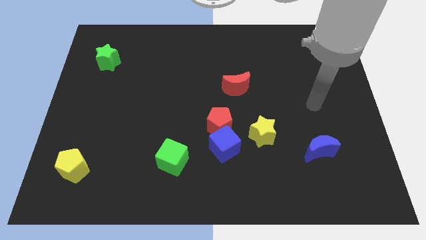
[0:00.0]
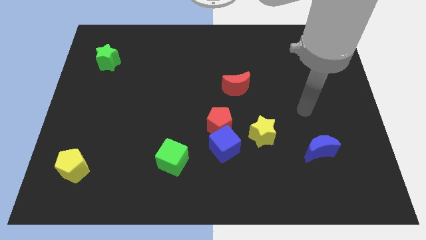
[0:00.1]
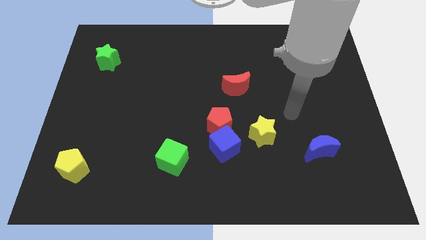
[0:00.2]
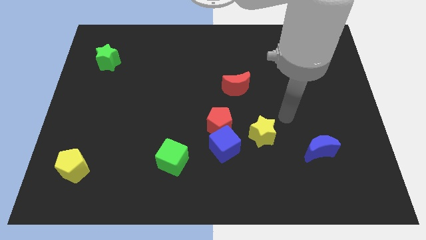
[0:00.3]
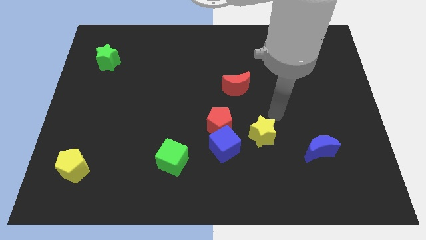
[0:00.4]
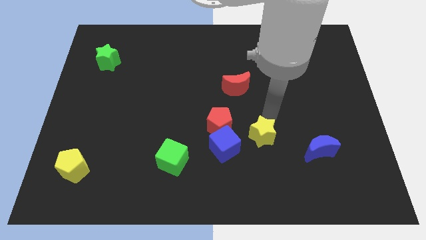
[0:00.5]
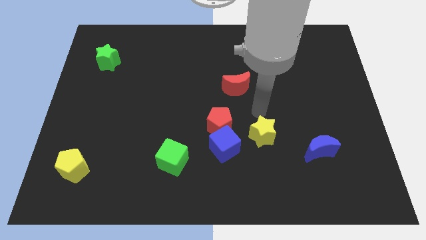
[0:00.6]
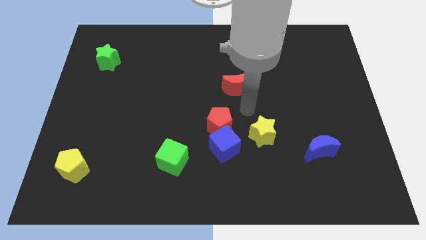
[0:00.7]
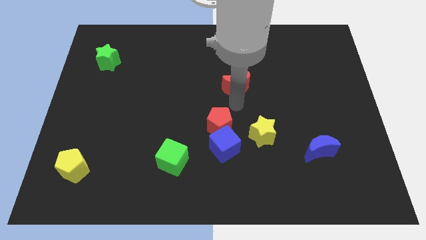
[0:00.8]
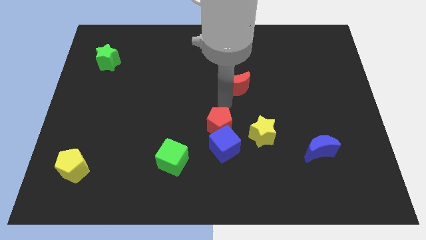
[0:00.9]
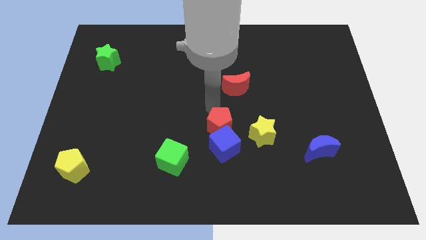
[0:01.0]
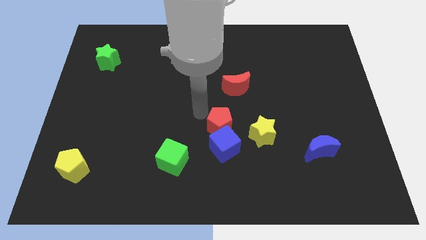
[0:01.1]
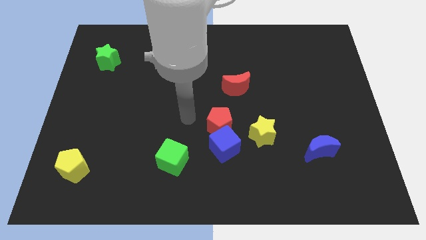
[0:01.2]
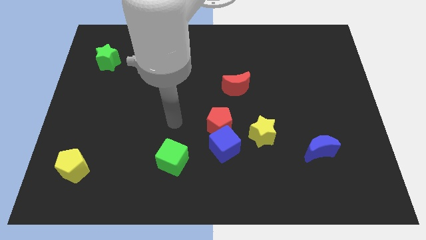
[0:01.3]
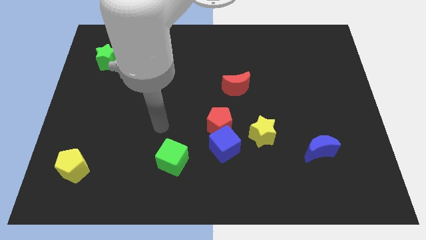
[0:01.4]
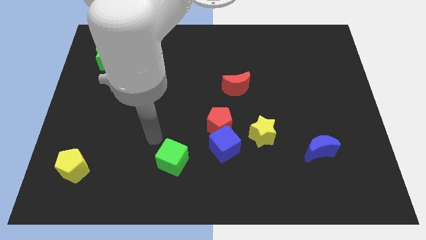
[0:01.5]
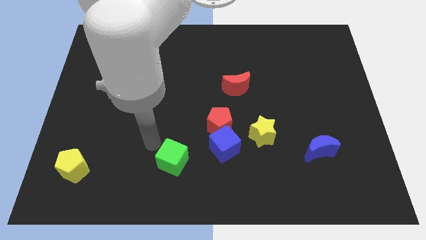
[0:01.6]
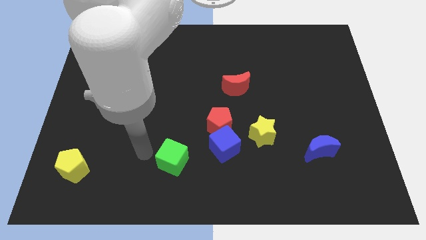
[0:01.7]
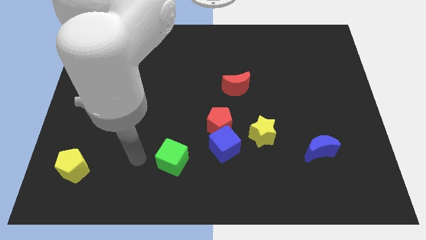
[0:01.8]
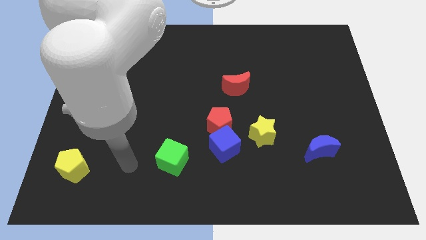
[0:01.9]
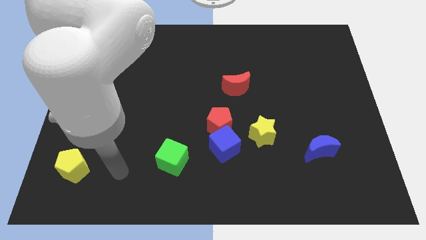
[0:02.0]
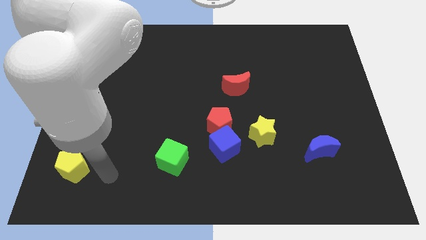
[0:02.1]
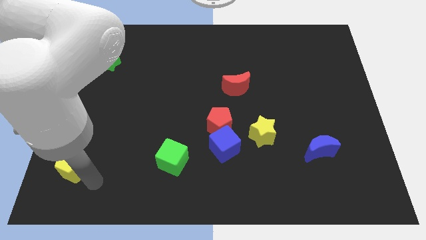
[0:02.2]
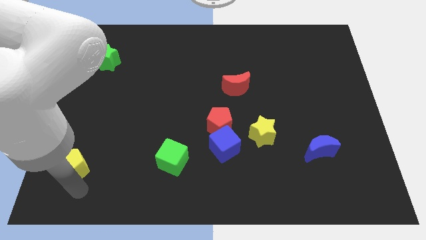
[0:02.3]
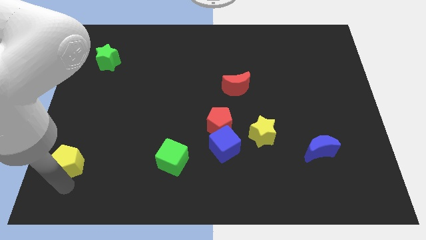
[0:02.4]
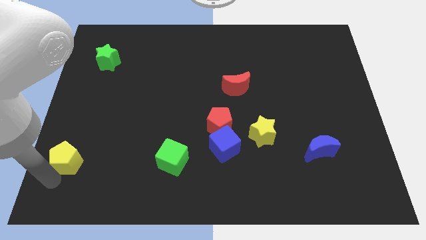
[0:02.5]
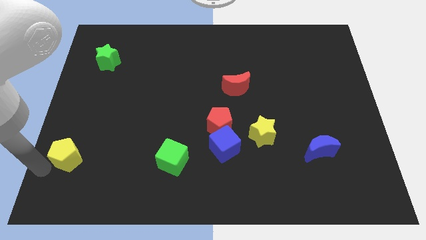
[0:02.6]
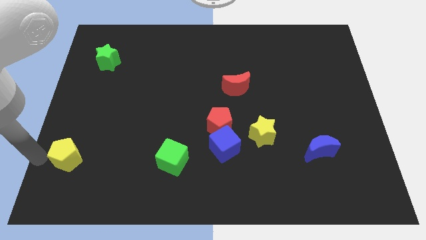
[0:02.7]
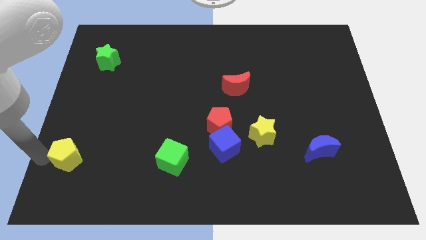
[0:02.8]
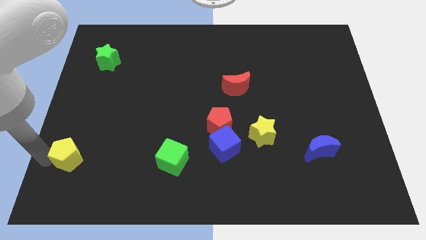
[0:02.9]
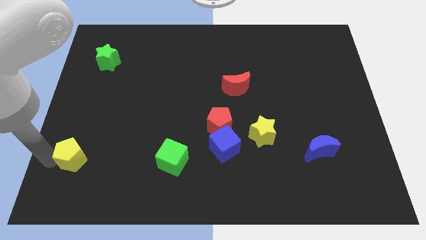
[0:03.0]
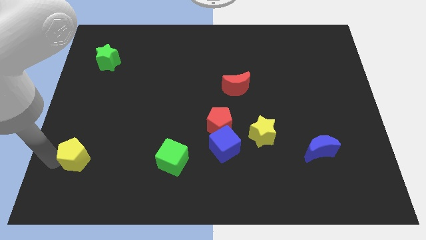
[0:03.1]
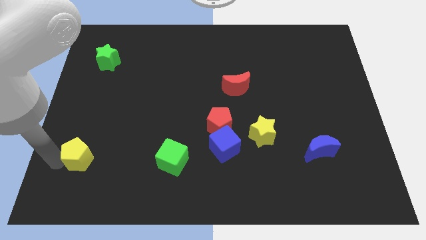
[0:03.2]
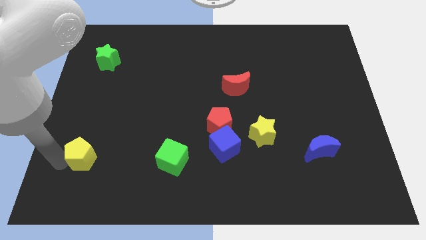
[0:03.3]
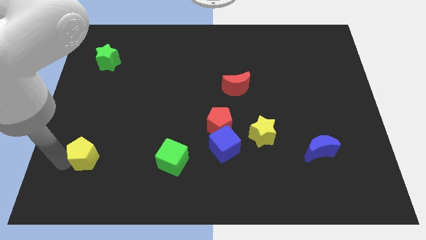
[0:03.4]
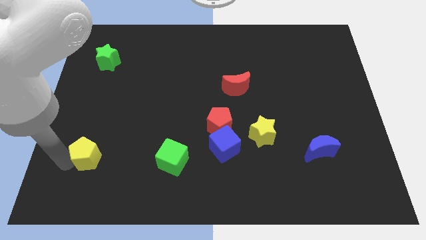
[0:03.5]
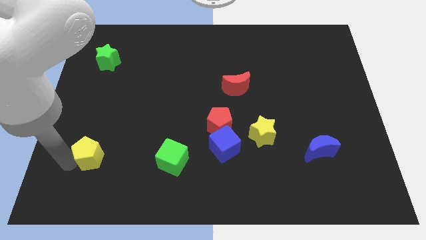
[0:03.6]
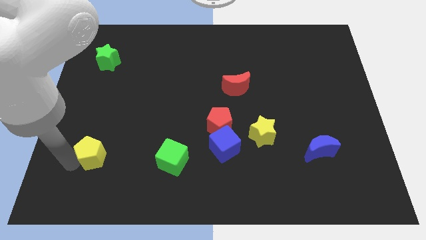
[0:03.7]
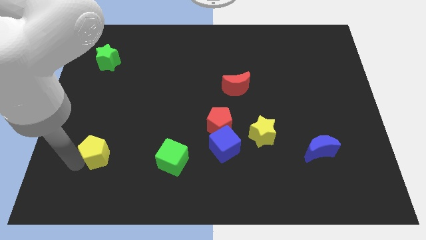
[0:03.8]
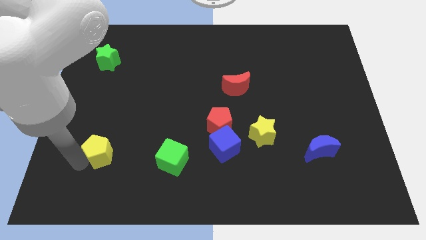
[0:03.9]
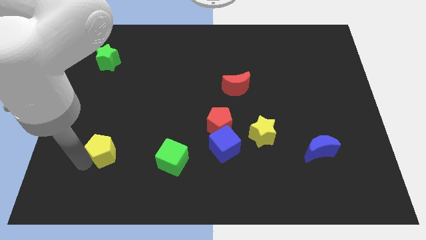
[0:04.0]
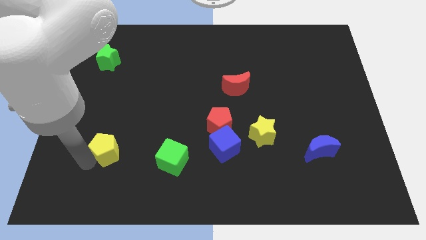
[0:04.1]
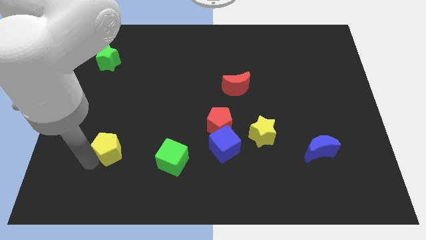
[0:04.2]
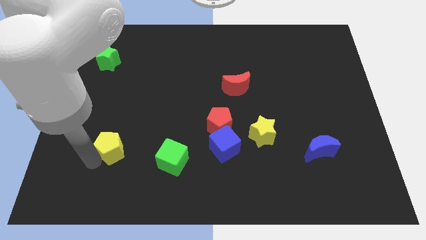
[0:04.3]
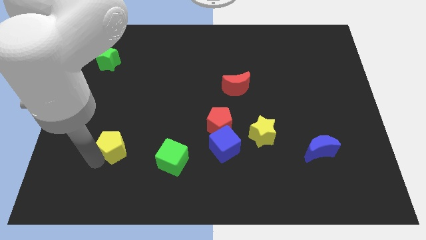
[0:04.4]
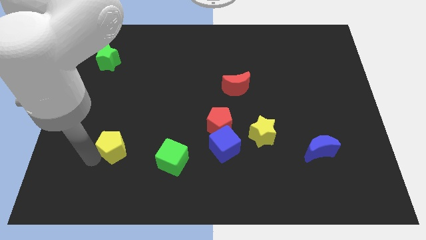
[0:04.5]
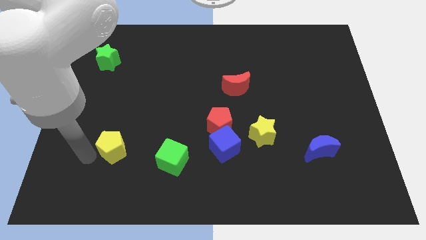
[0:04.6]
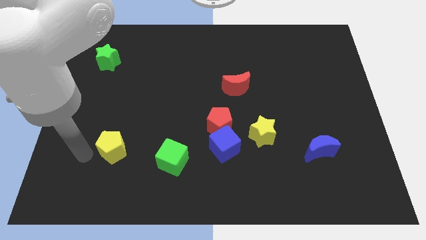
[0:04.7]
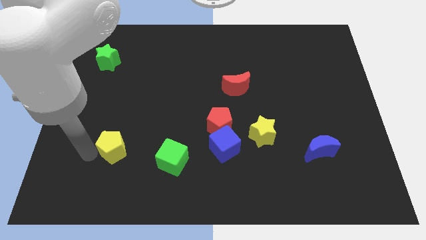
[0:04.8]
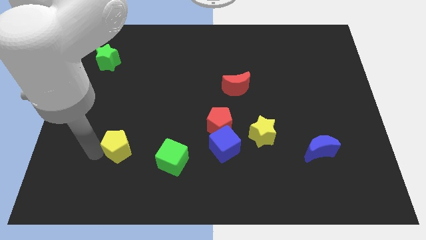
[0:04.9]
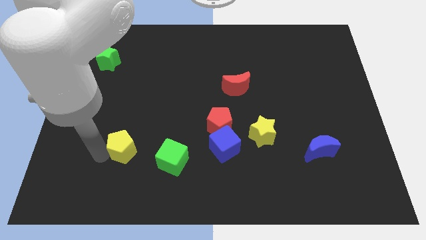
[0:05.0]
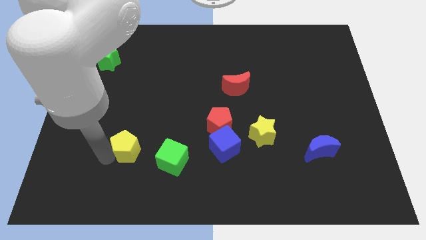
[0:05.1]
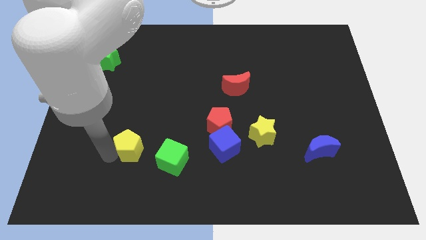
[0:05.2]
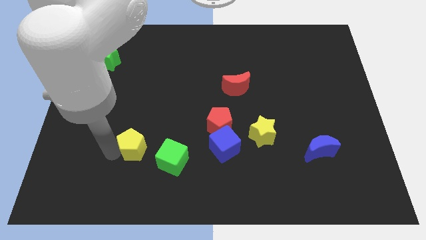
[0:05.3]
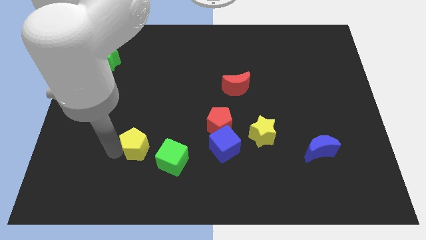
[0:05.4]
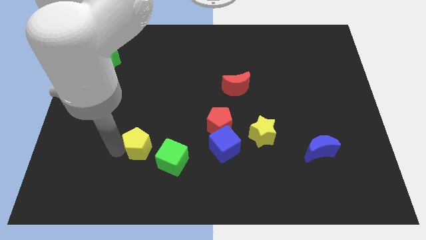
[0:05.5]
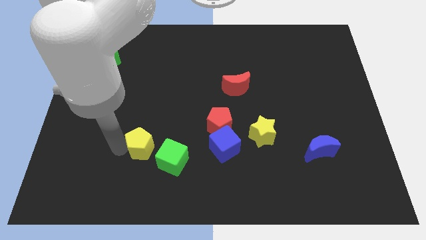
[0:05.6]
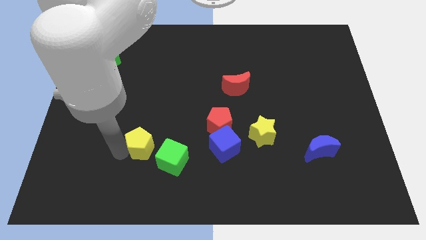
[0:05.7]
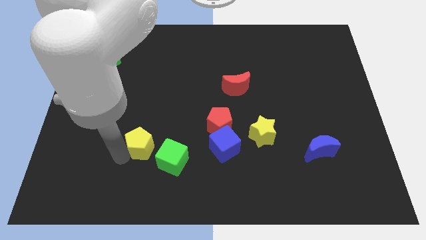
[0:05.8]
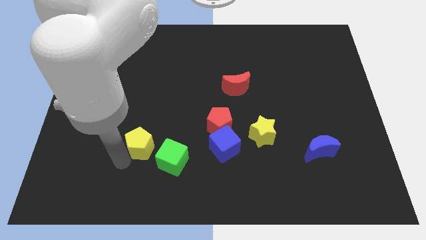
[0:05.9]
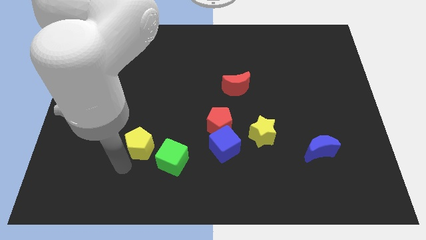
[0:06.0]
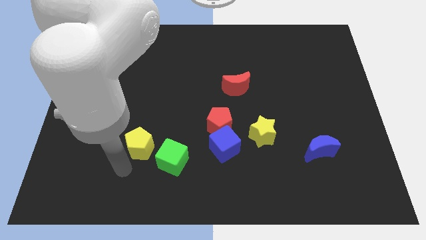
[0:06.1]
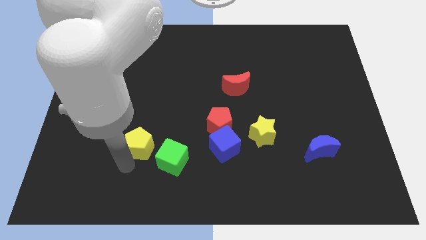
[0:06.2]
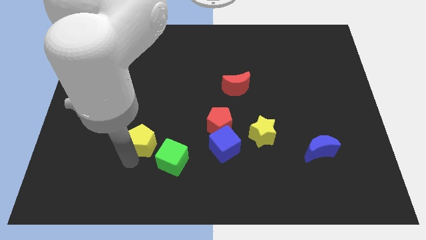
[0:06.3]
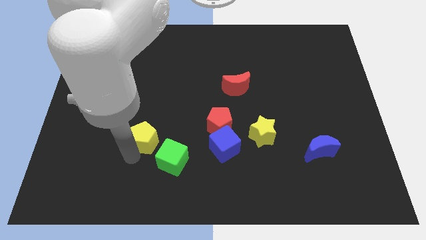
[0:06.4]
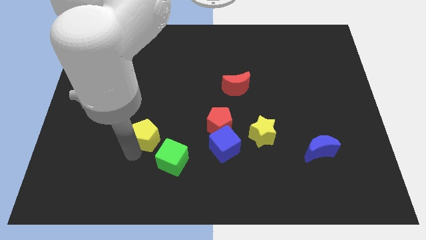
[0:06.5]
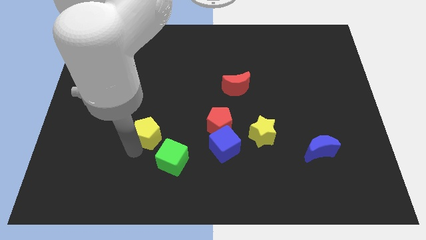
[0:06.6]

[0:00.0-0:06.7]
push the yellow pentagon just left of the red pentagon
